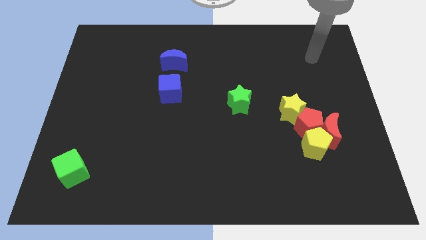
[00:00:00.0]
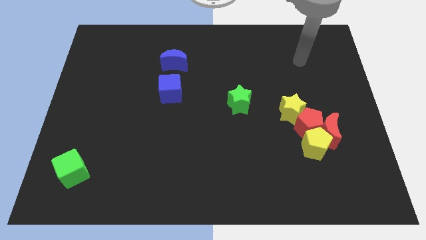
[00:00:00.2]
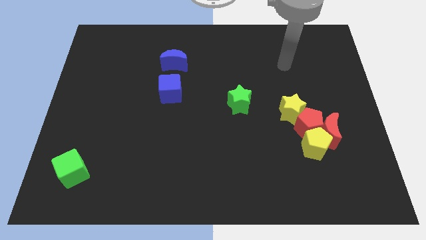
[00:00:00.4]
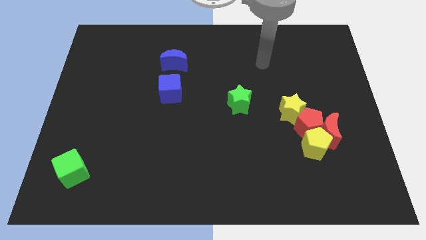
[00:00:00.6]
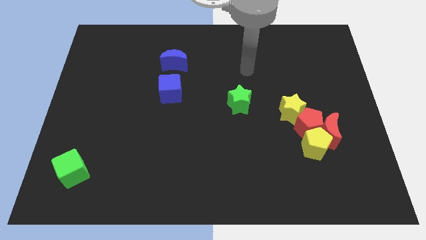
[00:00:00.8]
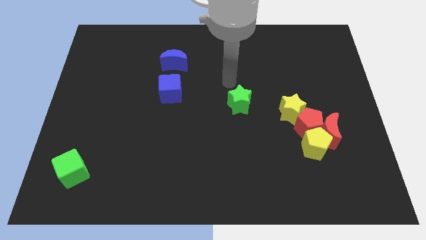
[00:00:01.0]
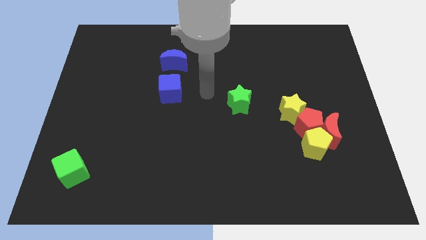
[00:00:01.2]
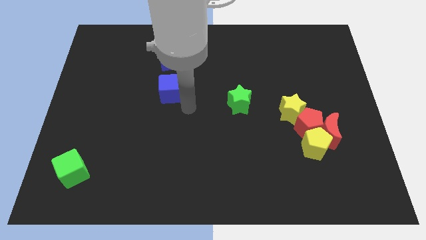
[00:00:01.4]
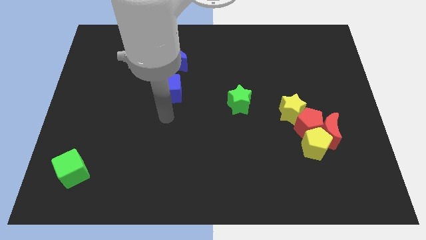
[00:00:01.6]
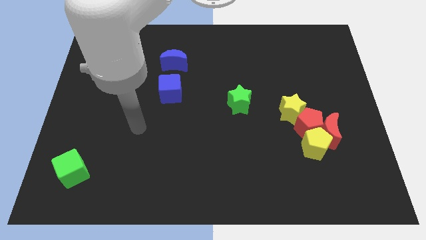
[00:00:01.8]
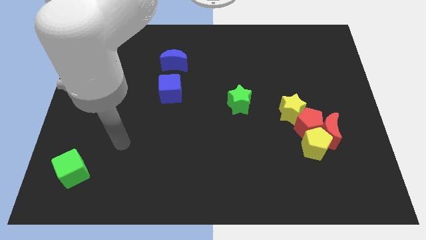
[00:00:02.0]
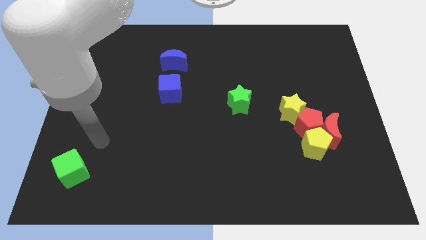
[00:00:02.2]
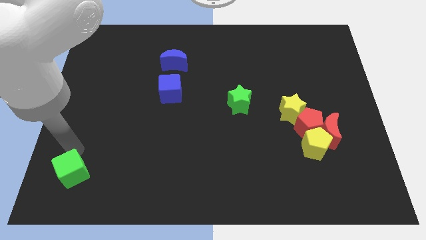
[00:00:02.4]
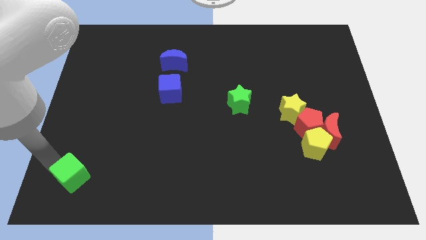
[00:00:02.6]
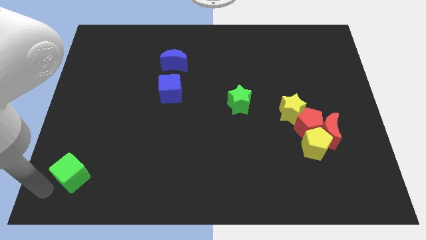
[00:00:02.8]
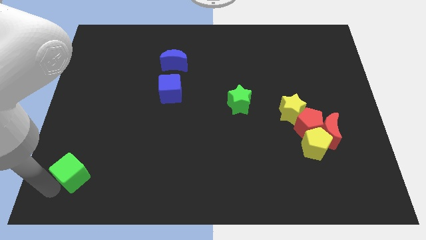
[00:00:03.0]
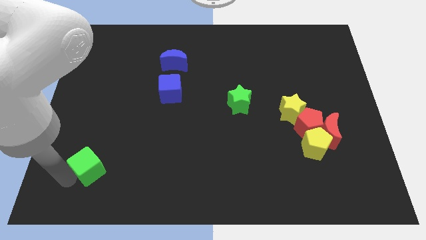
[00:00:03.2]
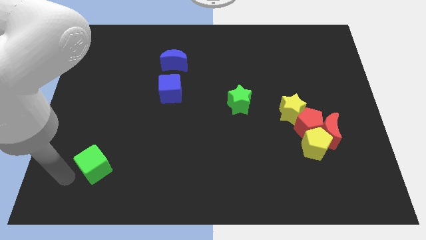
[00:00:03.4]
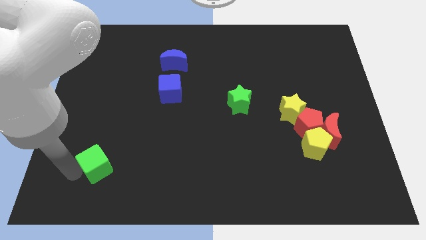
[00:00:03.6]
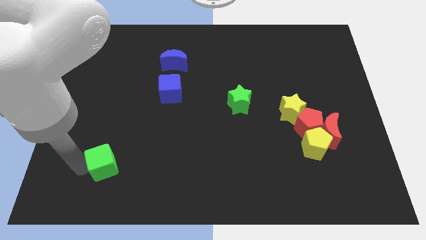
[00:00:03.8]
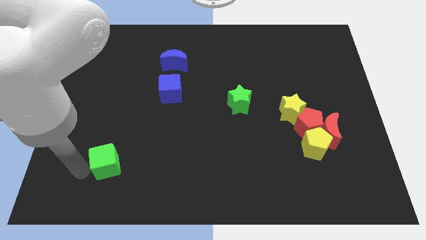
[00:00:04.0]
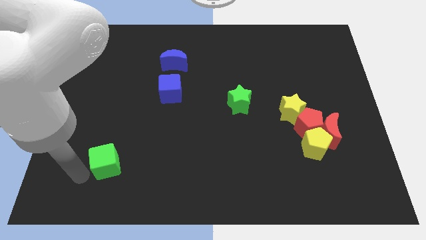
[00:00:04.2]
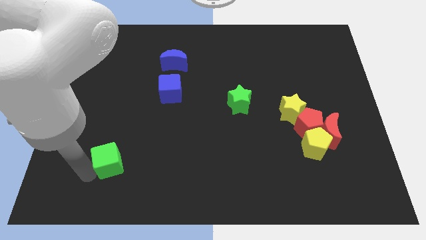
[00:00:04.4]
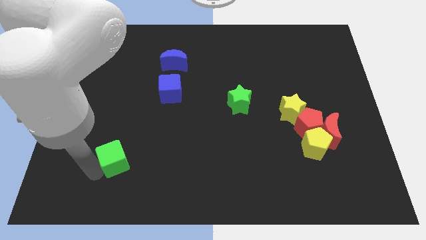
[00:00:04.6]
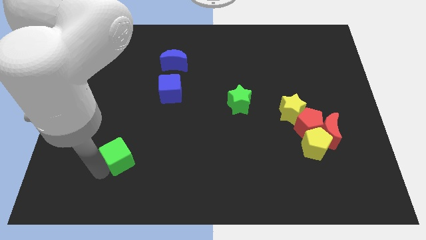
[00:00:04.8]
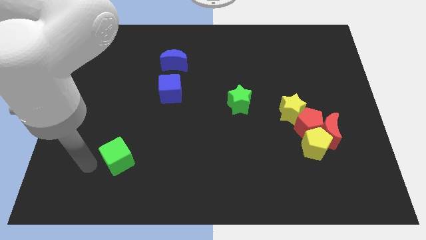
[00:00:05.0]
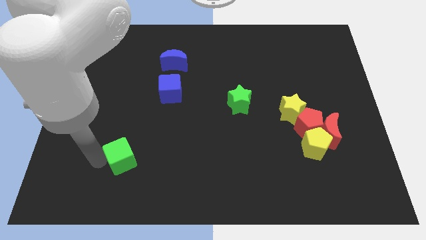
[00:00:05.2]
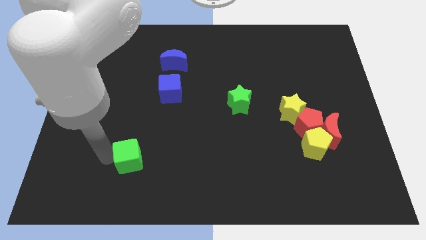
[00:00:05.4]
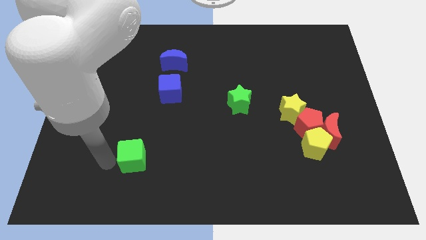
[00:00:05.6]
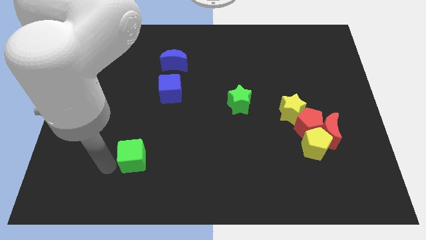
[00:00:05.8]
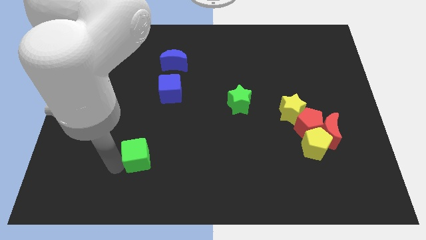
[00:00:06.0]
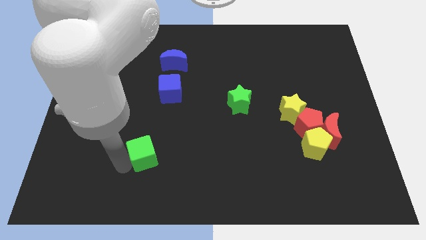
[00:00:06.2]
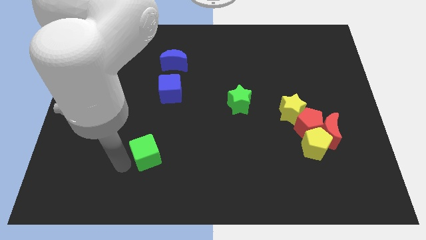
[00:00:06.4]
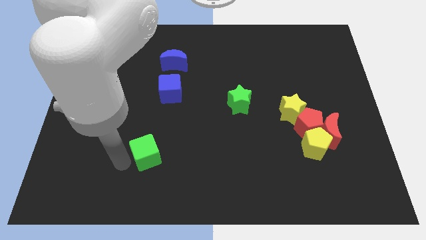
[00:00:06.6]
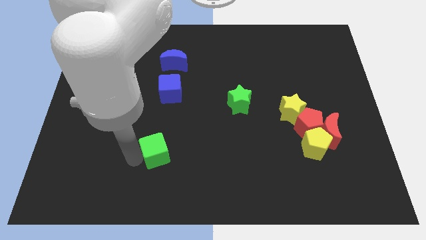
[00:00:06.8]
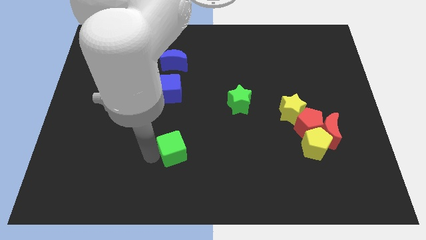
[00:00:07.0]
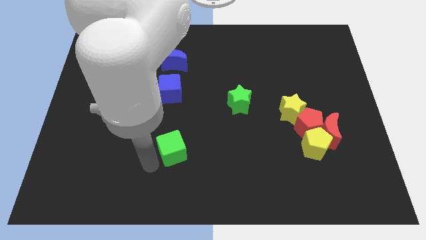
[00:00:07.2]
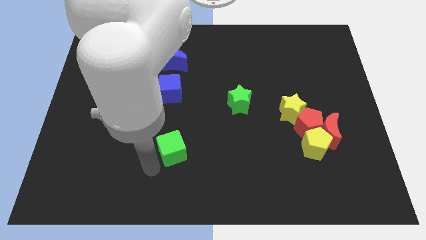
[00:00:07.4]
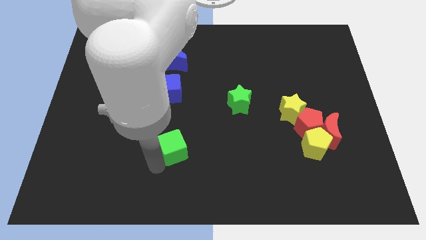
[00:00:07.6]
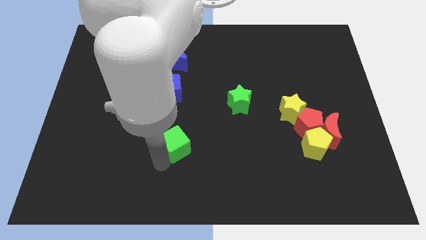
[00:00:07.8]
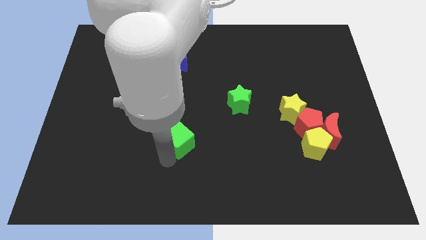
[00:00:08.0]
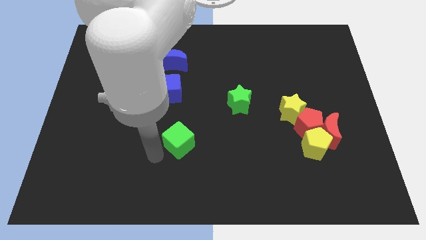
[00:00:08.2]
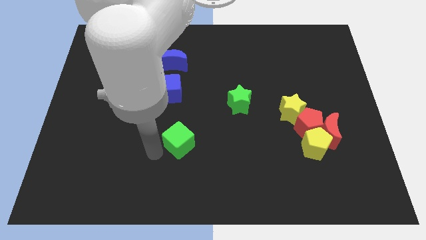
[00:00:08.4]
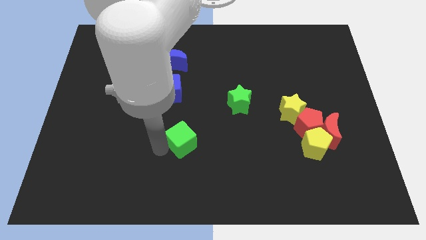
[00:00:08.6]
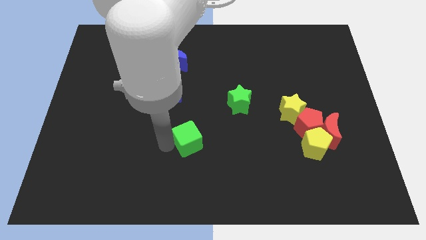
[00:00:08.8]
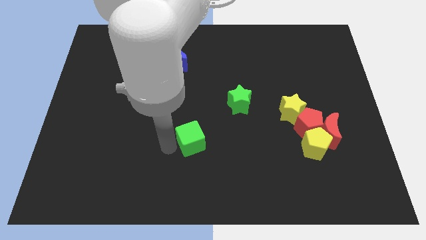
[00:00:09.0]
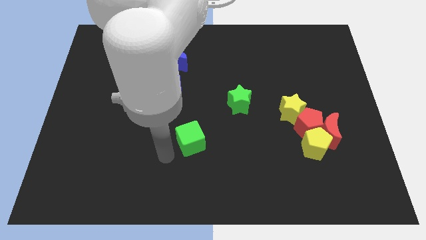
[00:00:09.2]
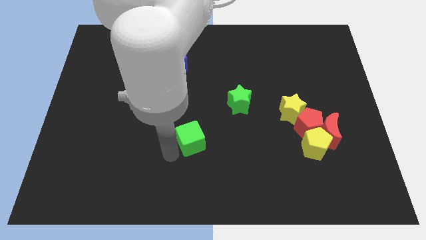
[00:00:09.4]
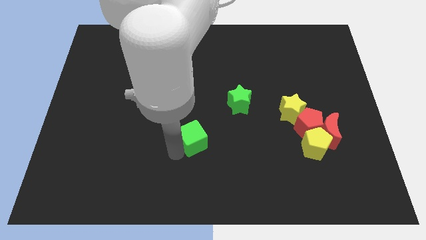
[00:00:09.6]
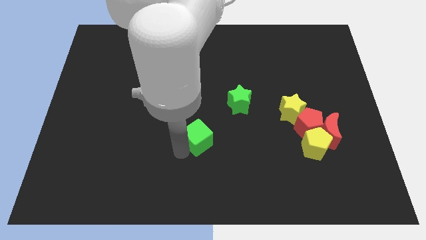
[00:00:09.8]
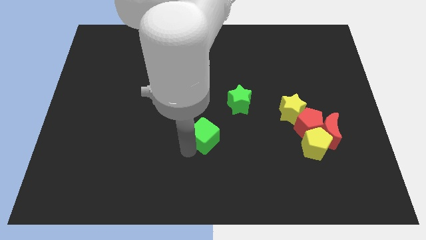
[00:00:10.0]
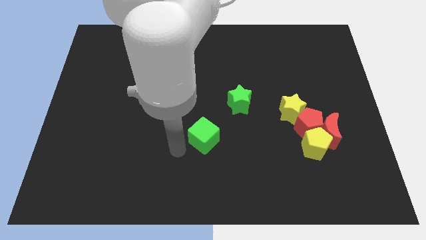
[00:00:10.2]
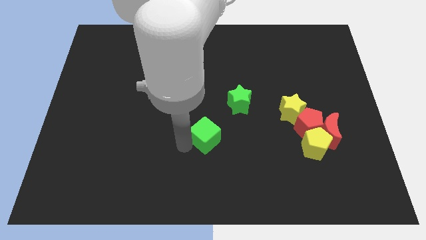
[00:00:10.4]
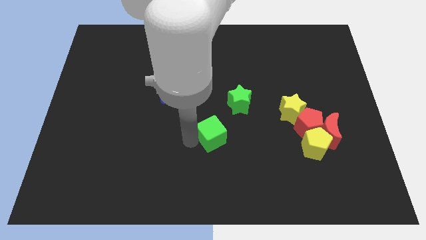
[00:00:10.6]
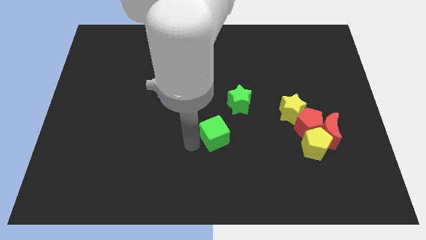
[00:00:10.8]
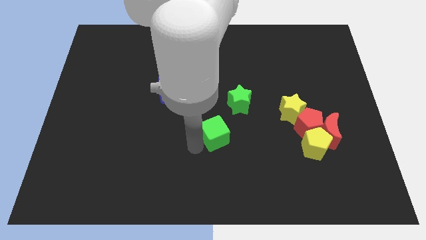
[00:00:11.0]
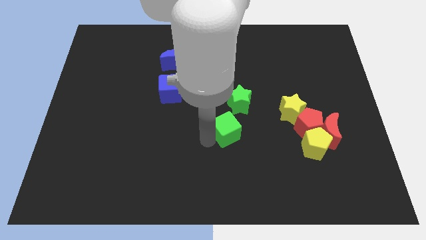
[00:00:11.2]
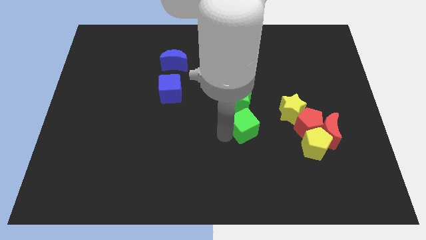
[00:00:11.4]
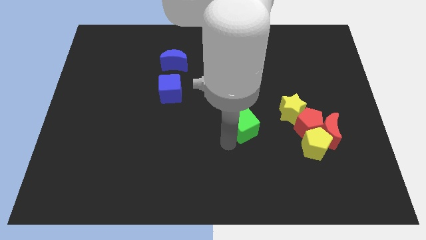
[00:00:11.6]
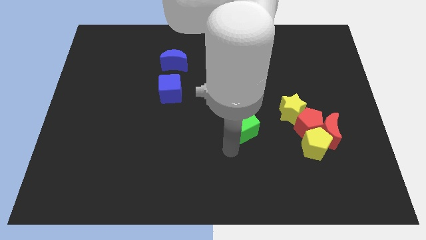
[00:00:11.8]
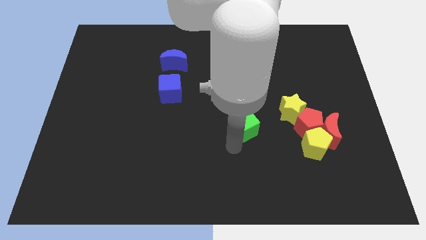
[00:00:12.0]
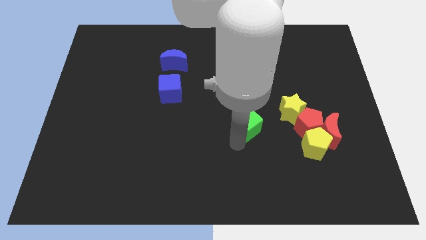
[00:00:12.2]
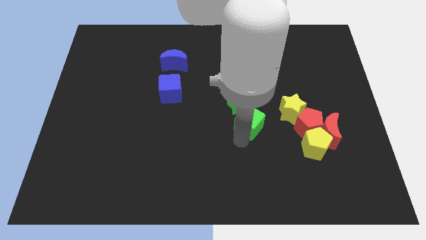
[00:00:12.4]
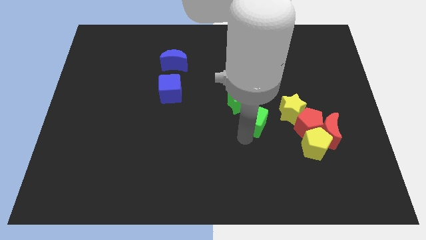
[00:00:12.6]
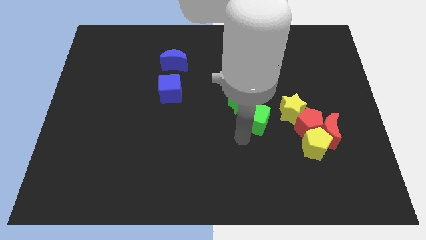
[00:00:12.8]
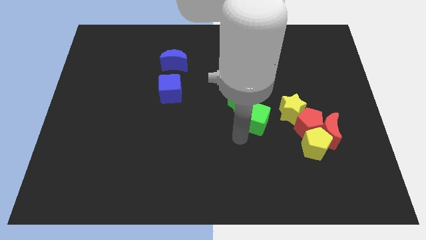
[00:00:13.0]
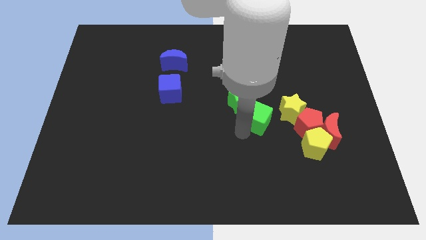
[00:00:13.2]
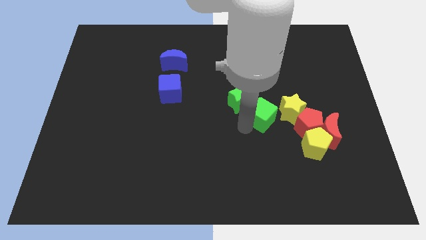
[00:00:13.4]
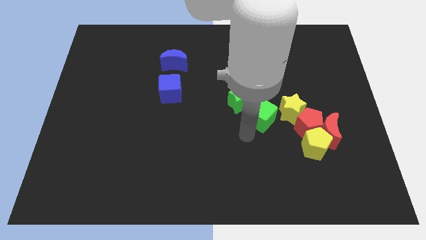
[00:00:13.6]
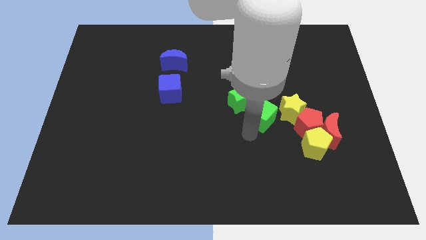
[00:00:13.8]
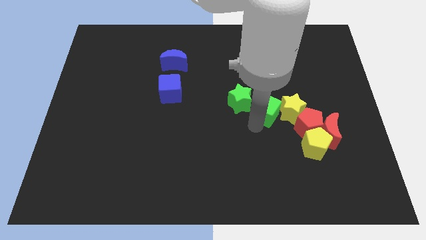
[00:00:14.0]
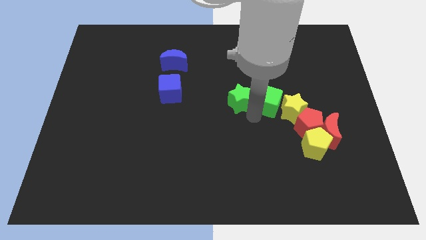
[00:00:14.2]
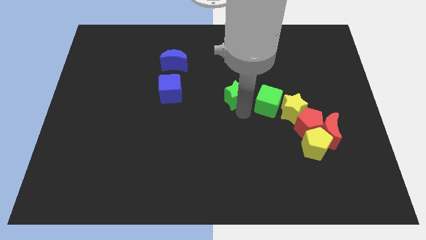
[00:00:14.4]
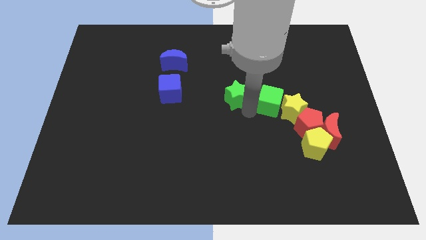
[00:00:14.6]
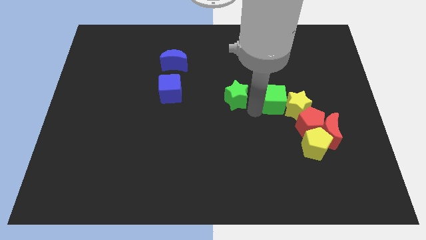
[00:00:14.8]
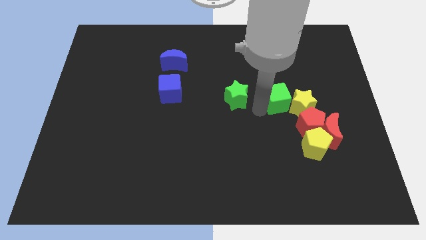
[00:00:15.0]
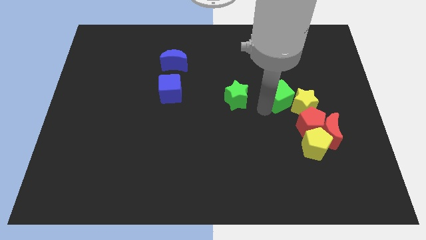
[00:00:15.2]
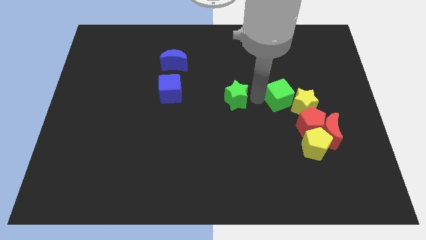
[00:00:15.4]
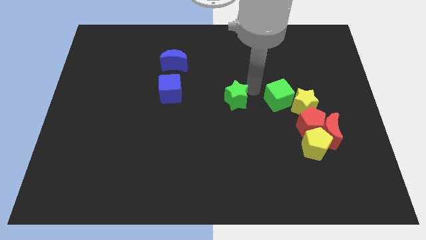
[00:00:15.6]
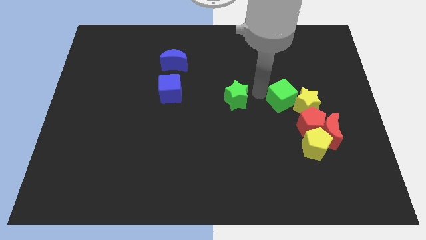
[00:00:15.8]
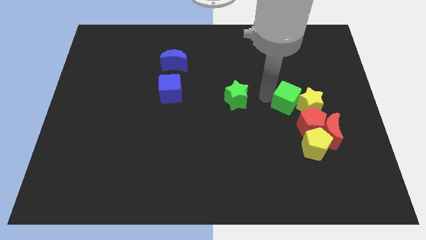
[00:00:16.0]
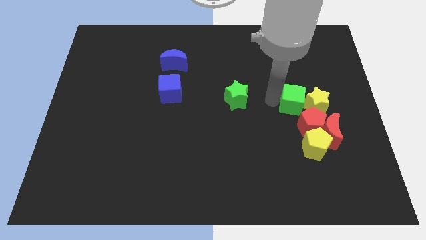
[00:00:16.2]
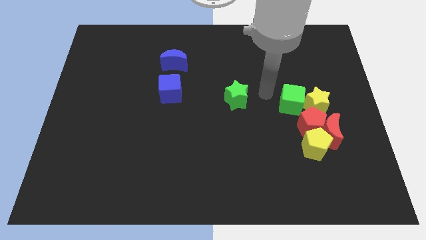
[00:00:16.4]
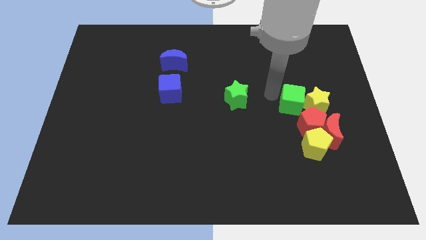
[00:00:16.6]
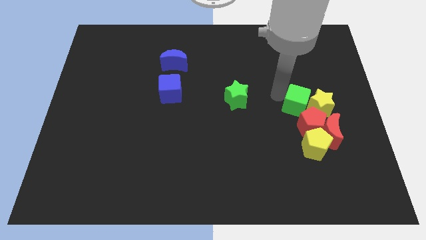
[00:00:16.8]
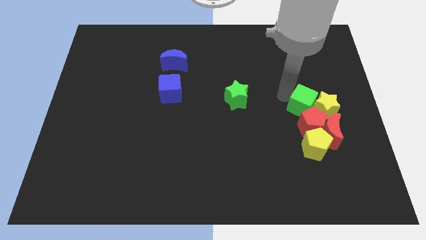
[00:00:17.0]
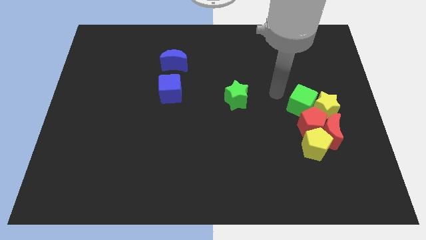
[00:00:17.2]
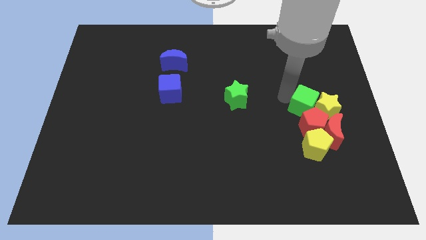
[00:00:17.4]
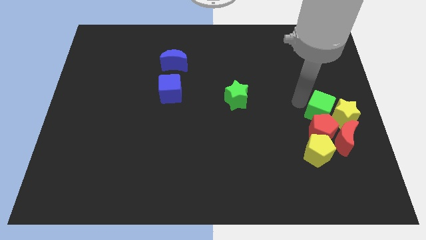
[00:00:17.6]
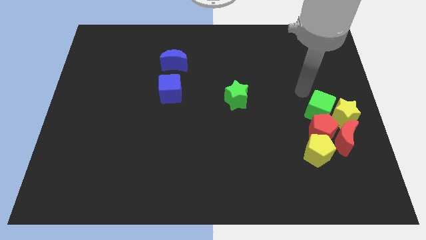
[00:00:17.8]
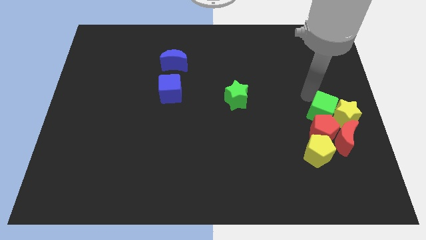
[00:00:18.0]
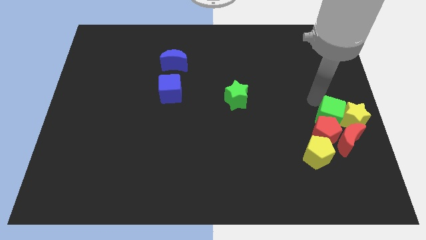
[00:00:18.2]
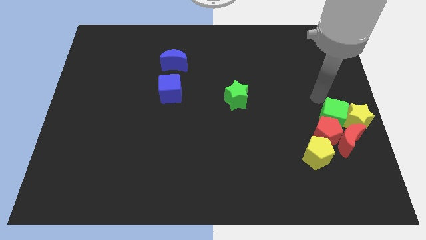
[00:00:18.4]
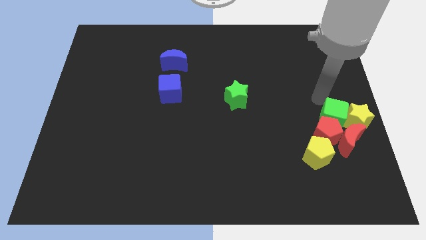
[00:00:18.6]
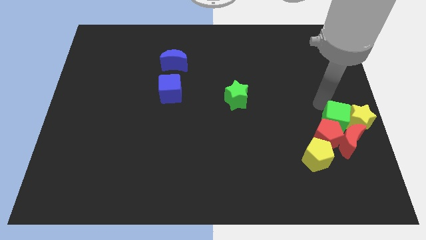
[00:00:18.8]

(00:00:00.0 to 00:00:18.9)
move the green cube to the red moon
